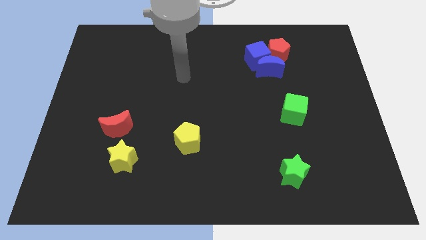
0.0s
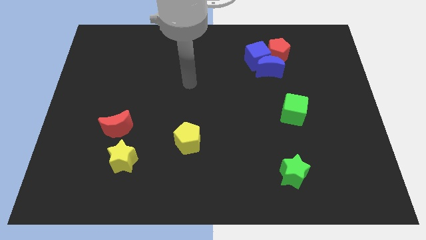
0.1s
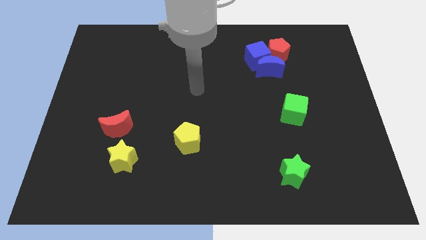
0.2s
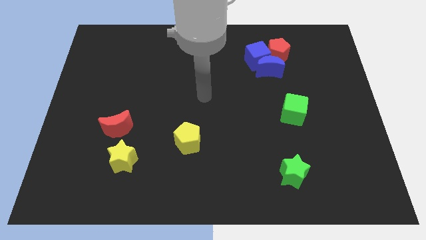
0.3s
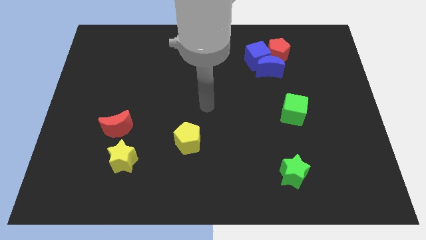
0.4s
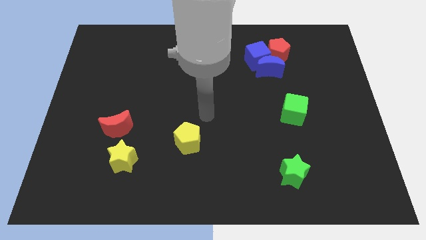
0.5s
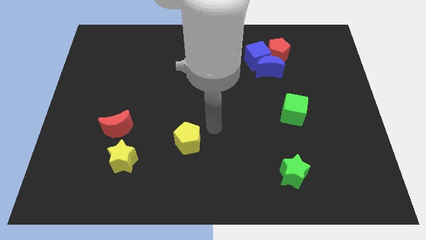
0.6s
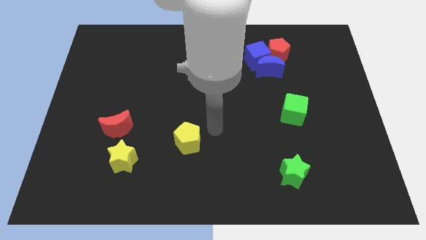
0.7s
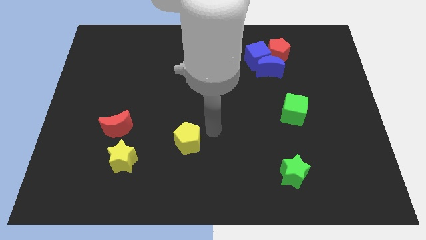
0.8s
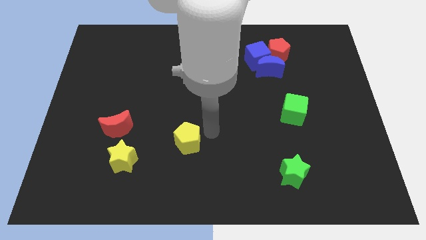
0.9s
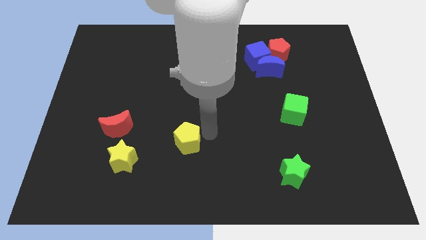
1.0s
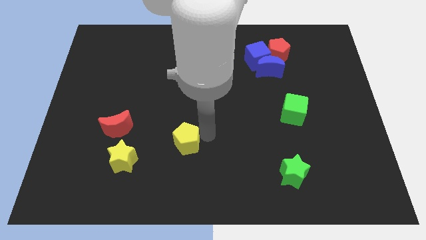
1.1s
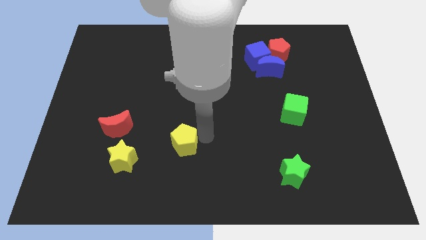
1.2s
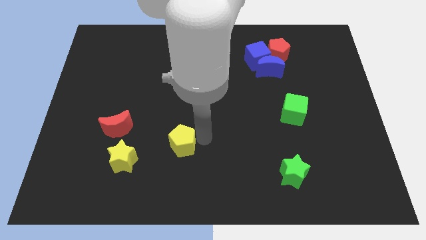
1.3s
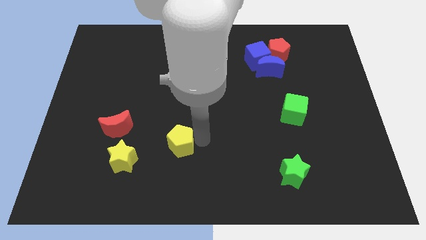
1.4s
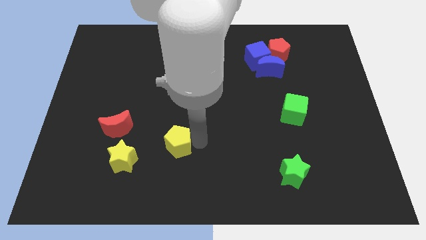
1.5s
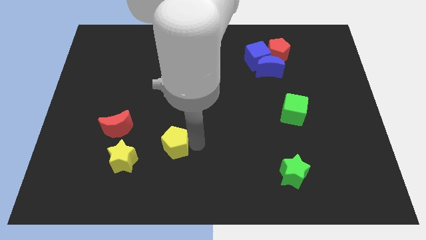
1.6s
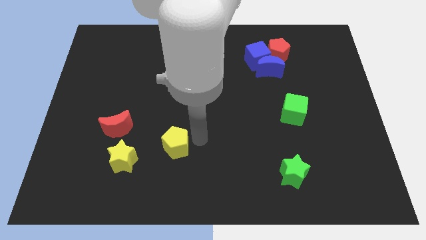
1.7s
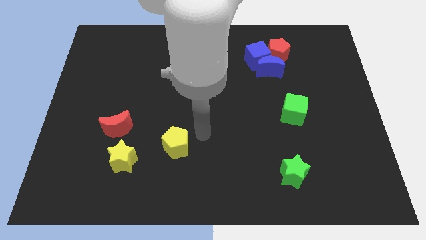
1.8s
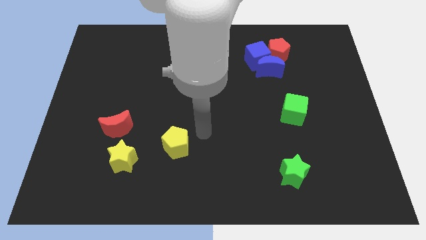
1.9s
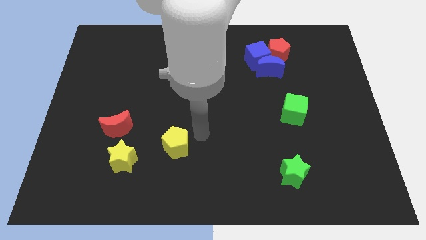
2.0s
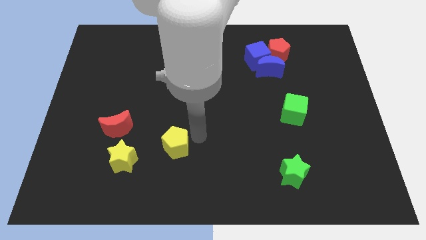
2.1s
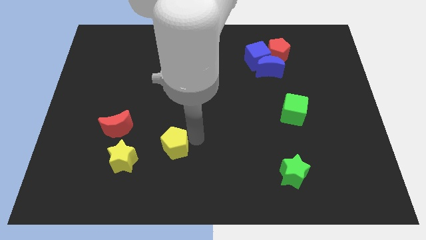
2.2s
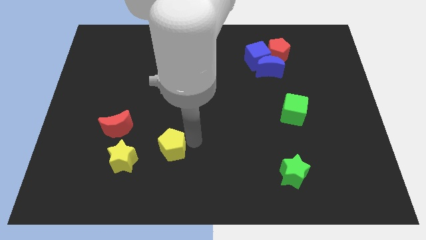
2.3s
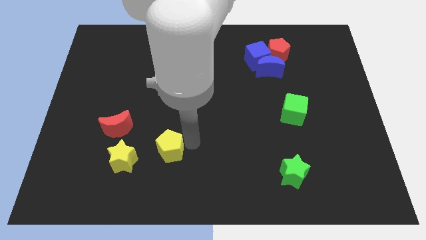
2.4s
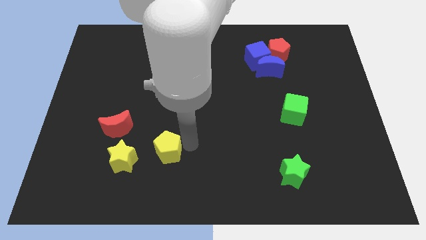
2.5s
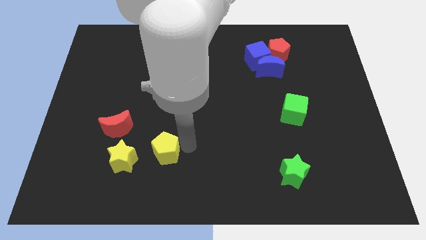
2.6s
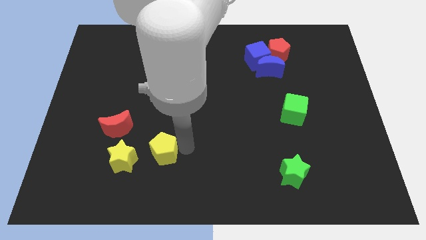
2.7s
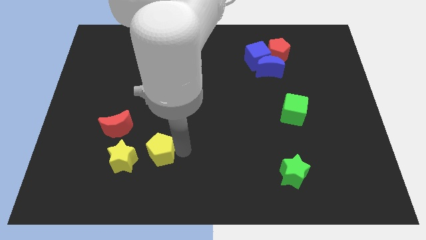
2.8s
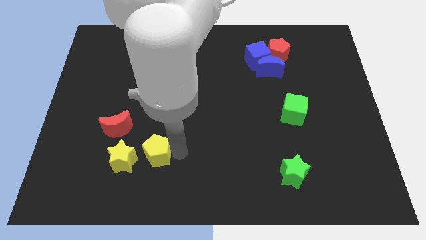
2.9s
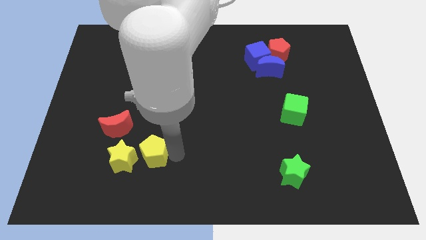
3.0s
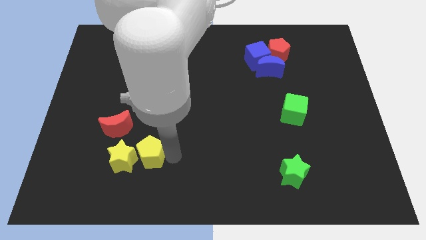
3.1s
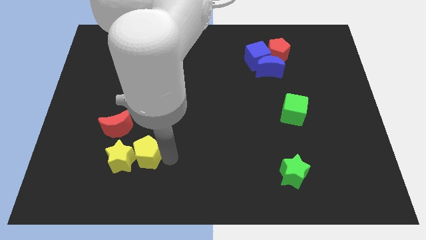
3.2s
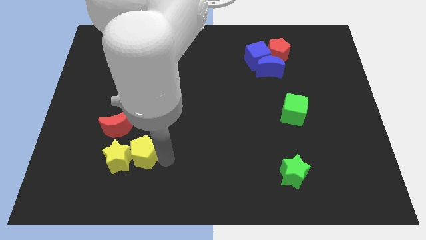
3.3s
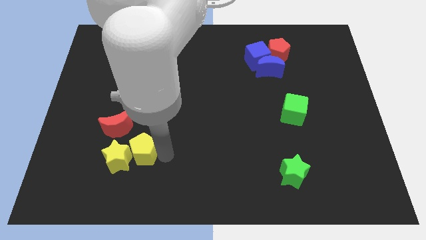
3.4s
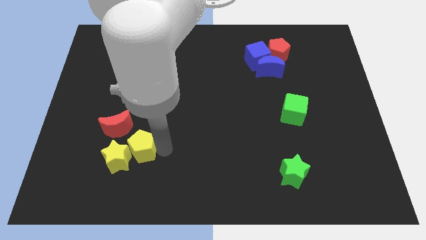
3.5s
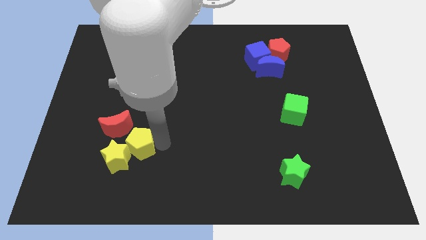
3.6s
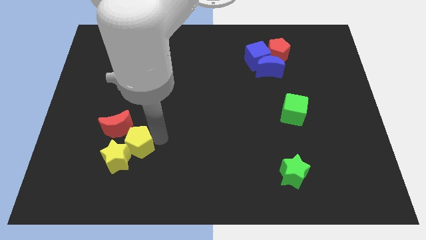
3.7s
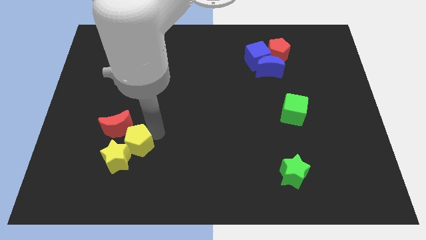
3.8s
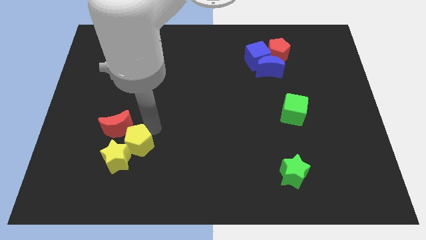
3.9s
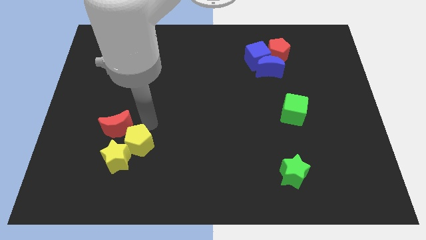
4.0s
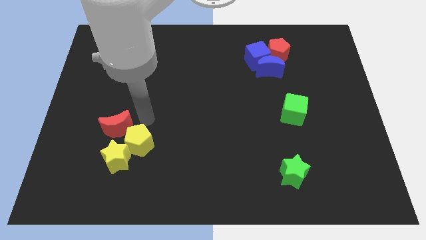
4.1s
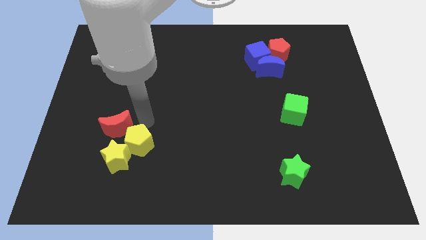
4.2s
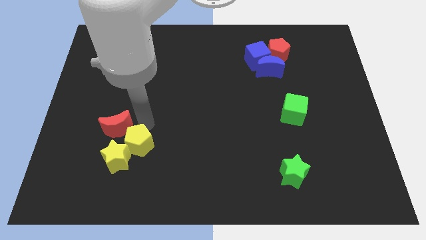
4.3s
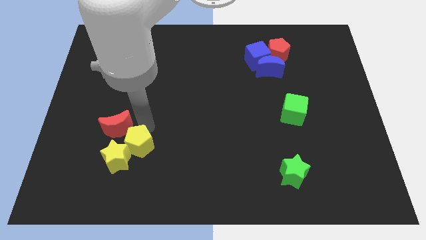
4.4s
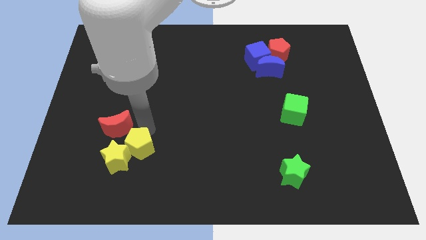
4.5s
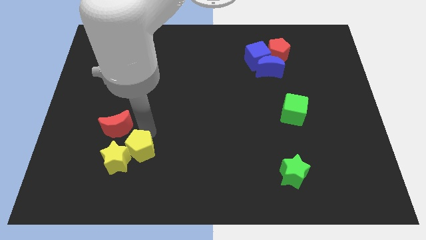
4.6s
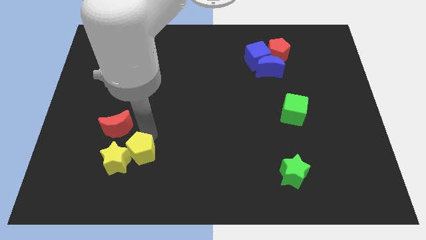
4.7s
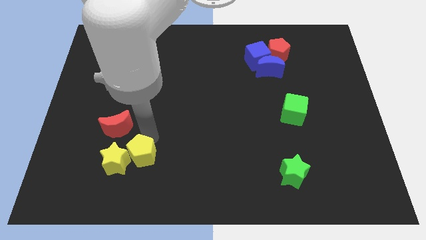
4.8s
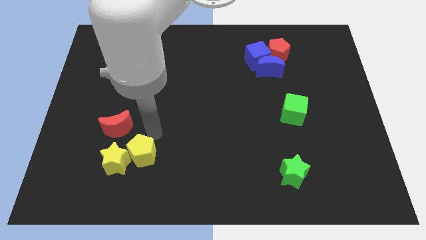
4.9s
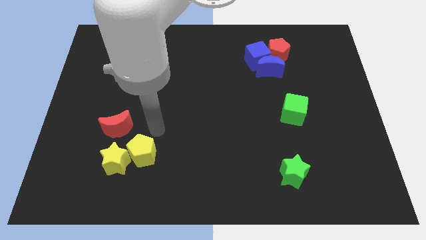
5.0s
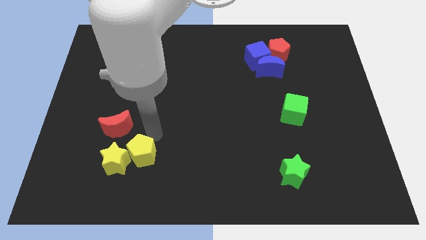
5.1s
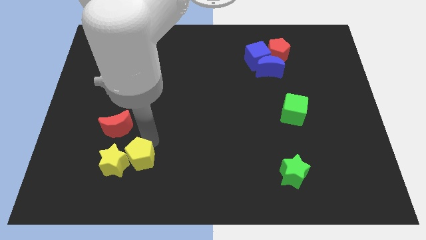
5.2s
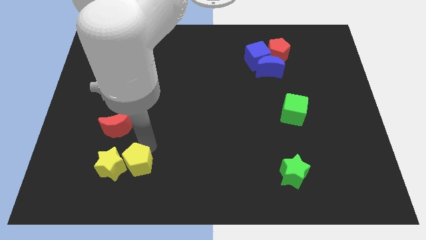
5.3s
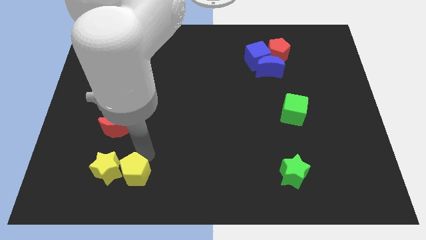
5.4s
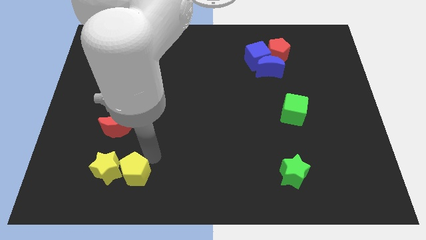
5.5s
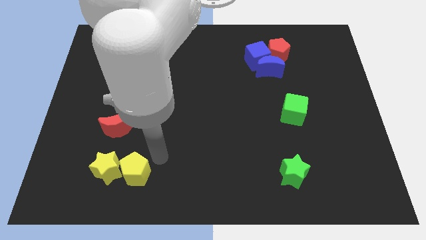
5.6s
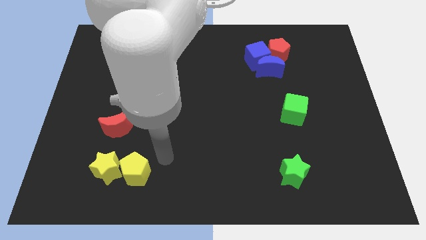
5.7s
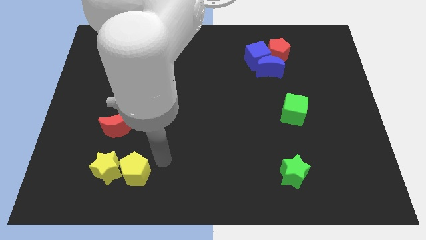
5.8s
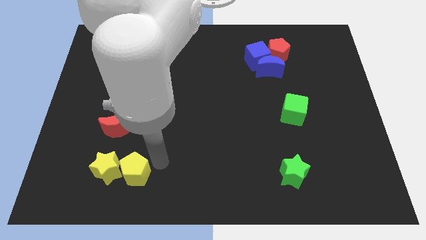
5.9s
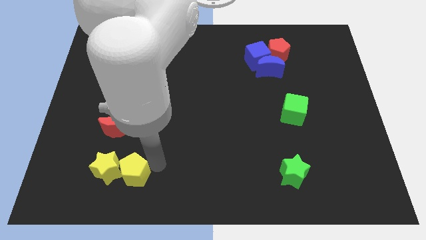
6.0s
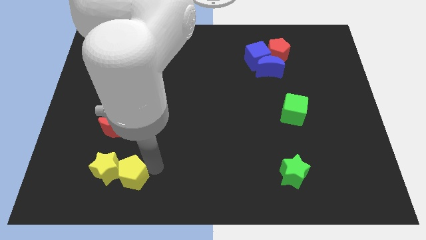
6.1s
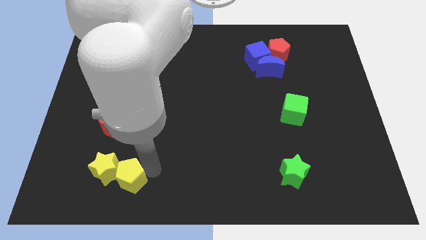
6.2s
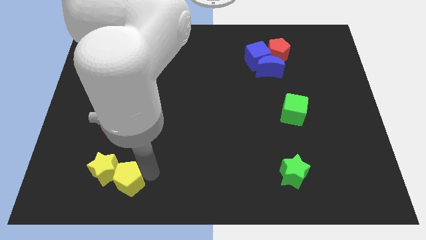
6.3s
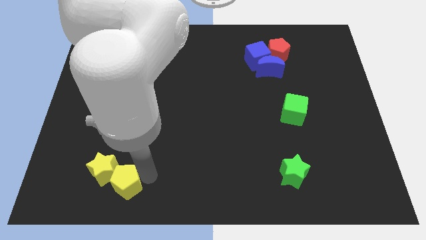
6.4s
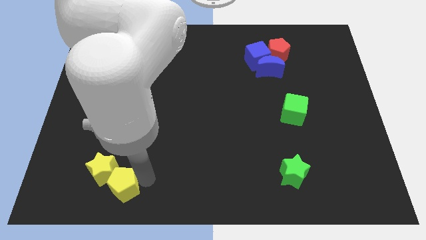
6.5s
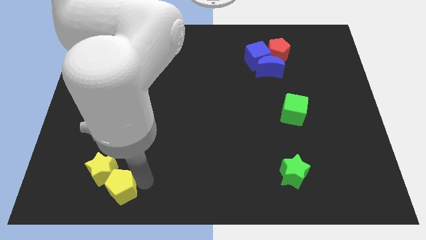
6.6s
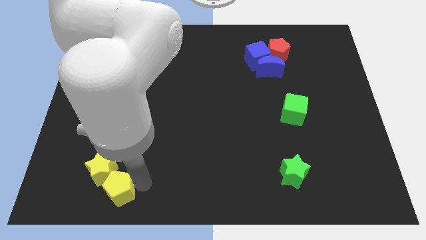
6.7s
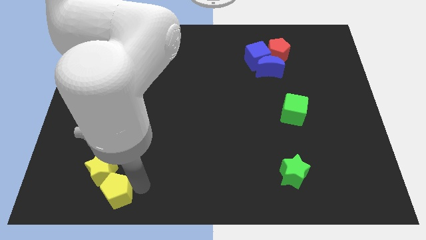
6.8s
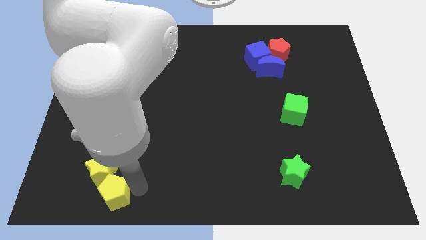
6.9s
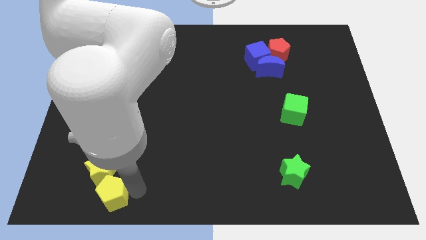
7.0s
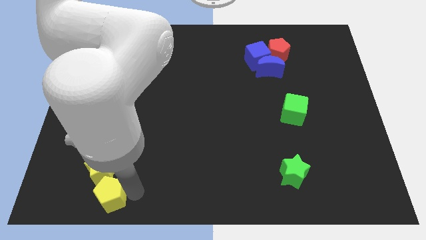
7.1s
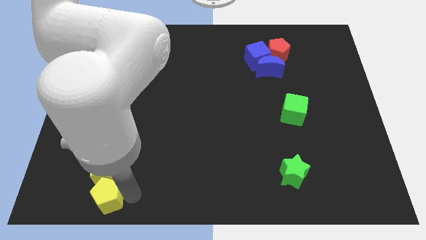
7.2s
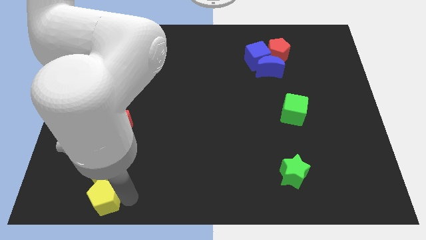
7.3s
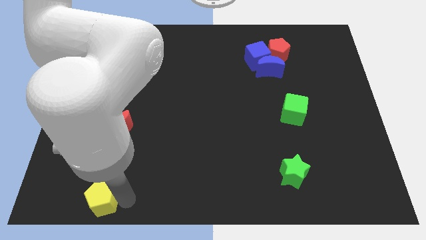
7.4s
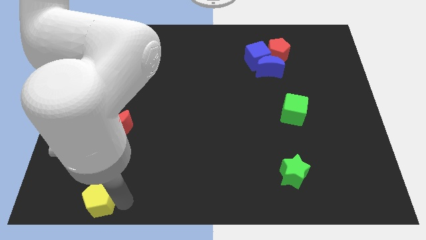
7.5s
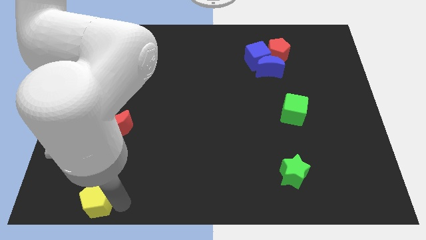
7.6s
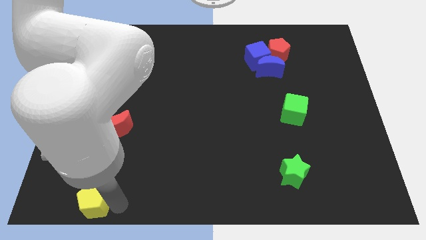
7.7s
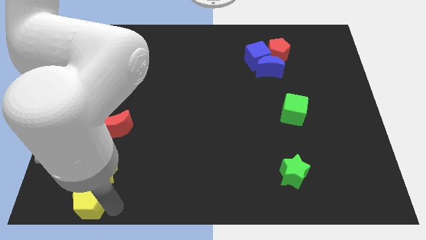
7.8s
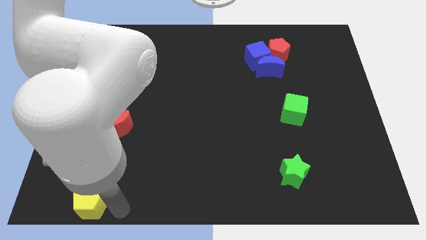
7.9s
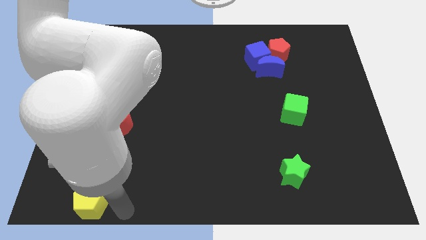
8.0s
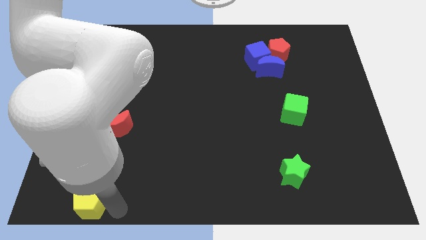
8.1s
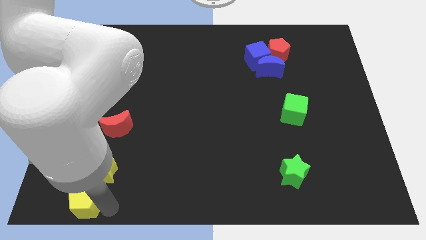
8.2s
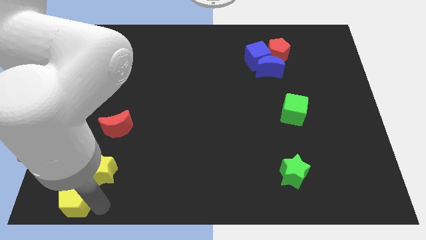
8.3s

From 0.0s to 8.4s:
push the yellow pentagon to the bottom left of the board
